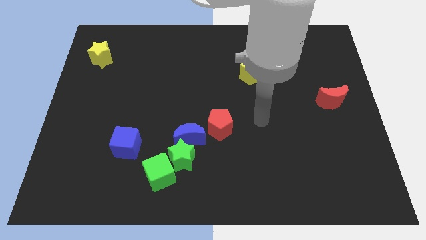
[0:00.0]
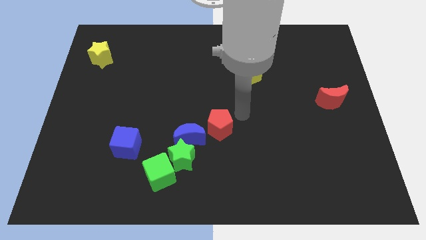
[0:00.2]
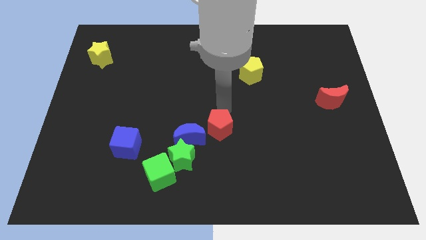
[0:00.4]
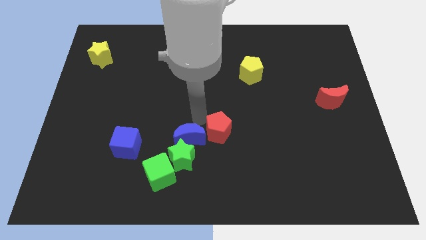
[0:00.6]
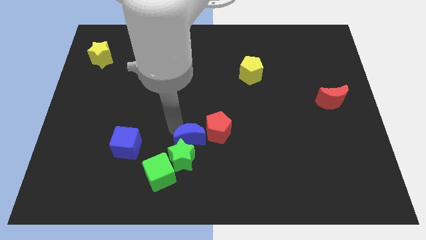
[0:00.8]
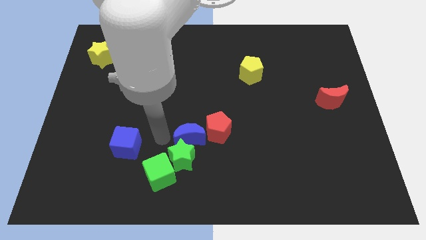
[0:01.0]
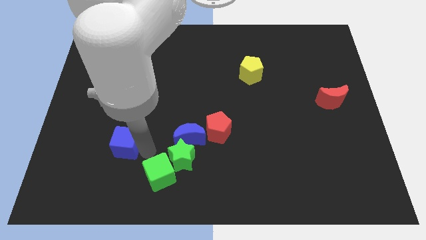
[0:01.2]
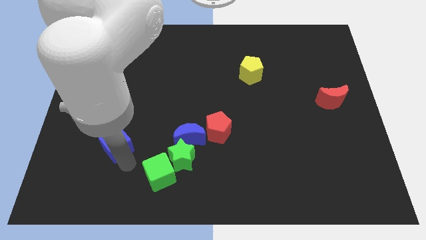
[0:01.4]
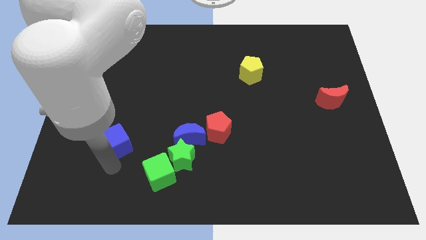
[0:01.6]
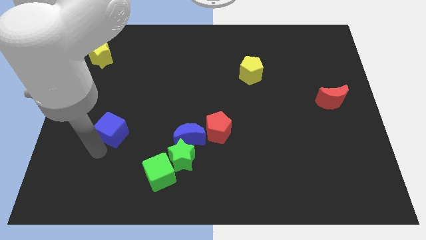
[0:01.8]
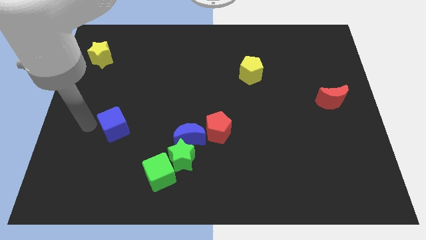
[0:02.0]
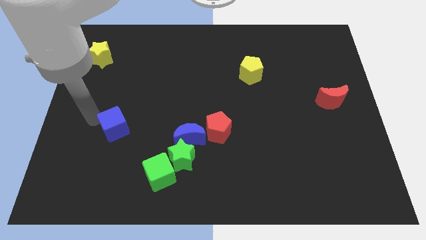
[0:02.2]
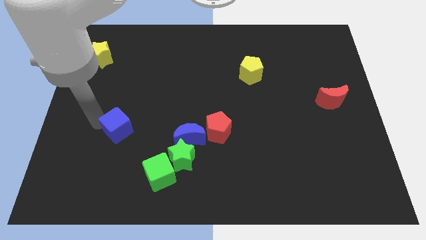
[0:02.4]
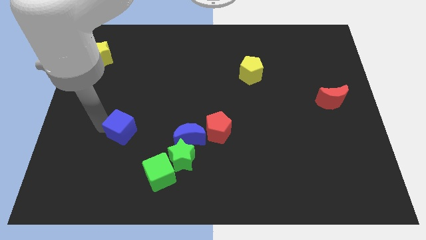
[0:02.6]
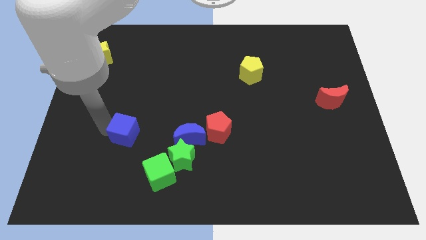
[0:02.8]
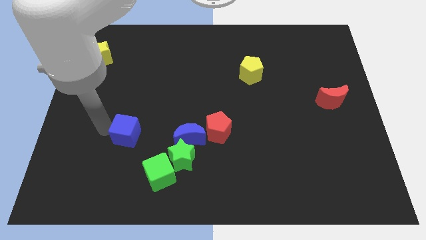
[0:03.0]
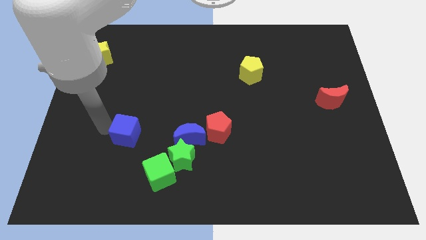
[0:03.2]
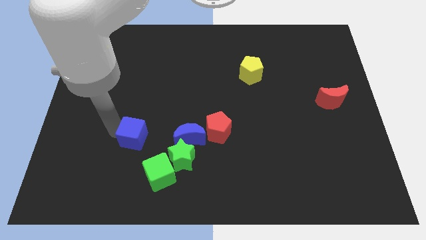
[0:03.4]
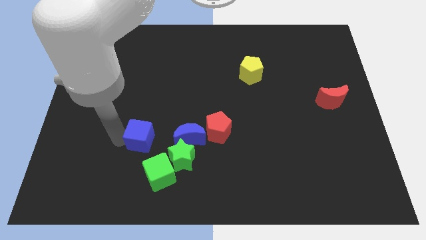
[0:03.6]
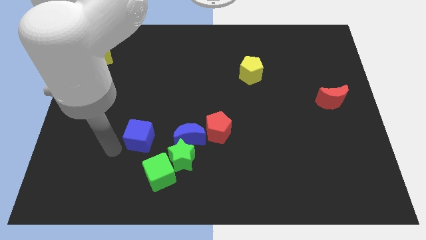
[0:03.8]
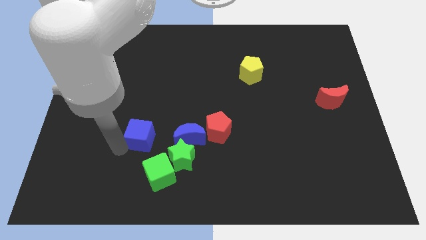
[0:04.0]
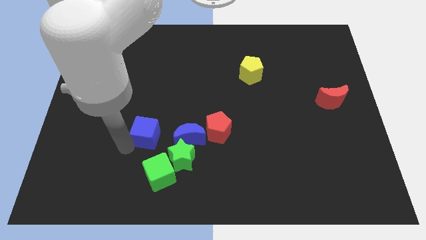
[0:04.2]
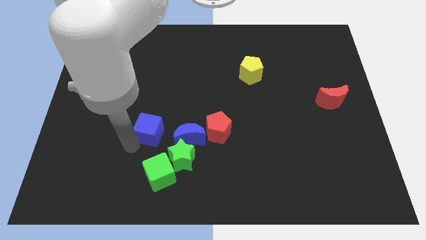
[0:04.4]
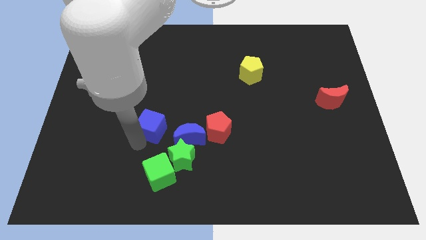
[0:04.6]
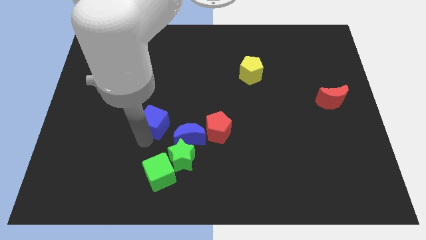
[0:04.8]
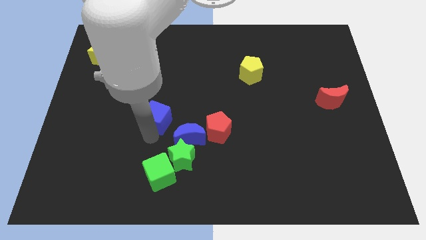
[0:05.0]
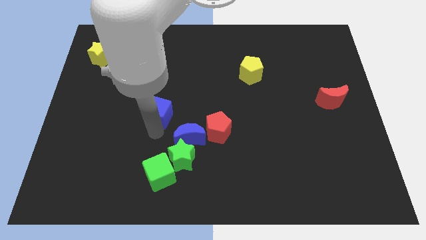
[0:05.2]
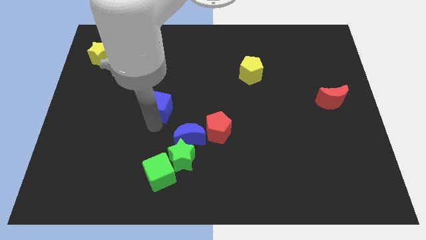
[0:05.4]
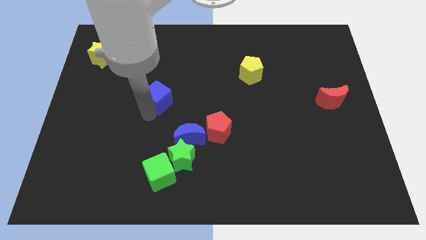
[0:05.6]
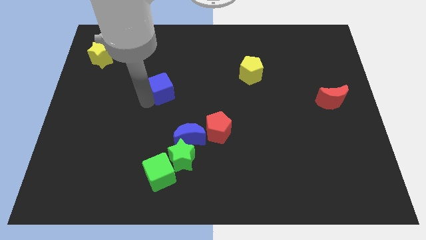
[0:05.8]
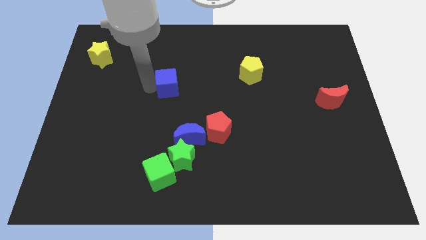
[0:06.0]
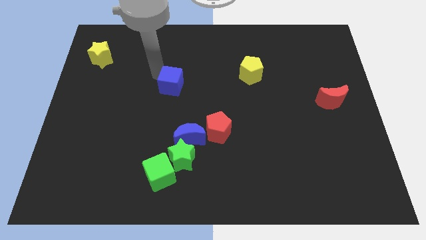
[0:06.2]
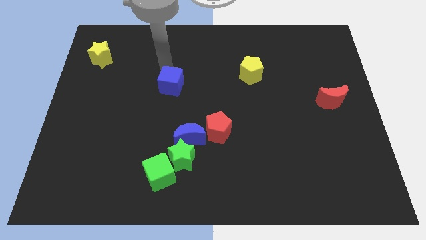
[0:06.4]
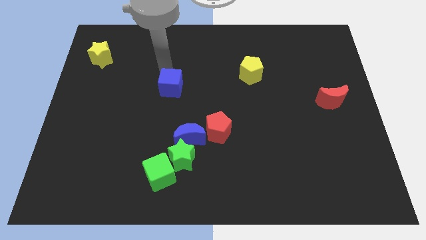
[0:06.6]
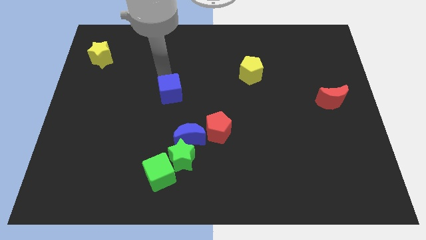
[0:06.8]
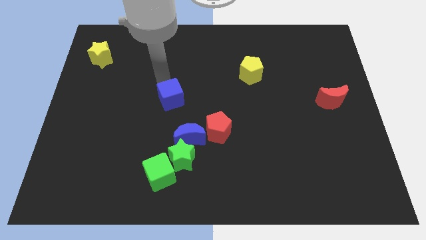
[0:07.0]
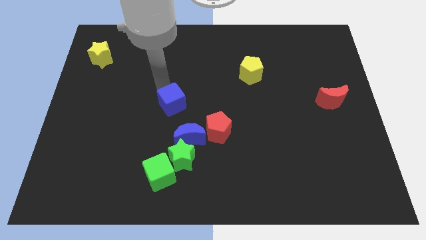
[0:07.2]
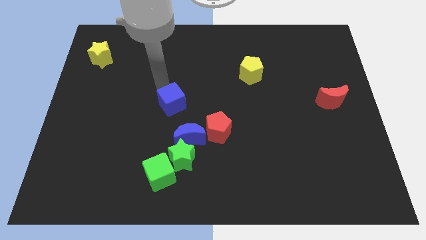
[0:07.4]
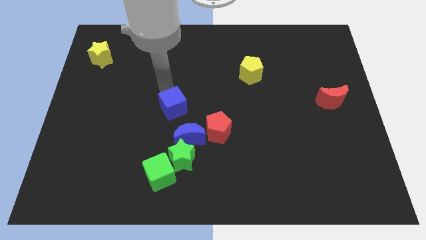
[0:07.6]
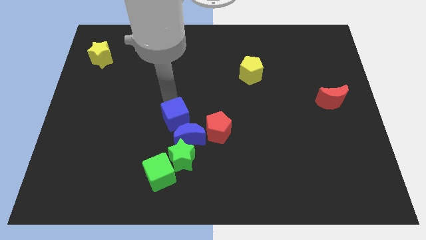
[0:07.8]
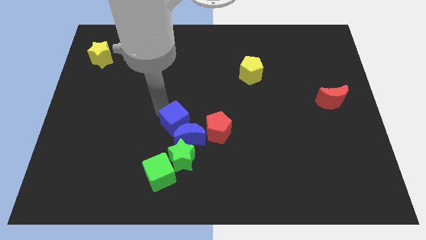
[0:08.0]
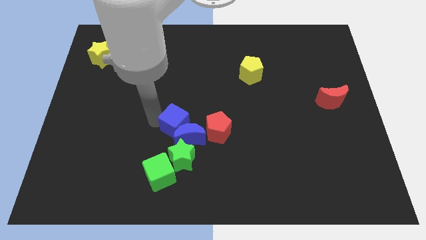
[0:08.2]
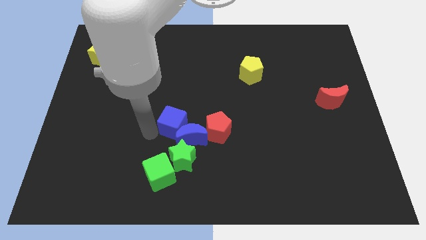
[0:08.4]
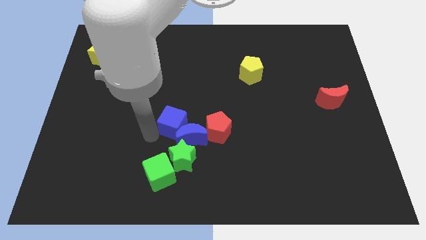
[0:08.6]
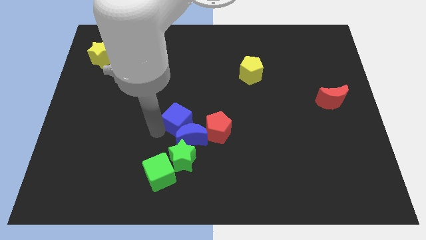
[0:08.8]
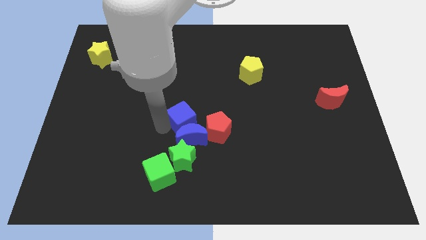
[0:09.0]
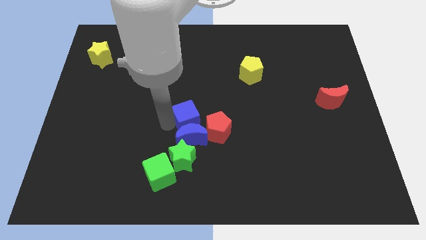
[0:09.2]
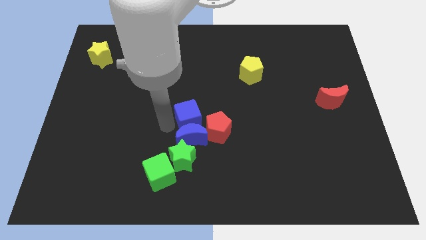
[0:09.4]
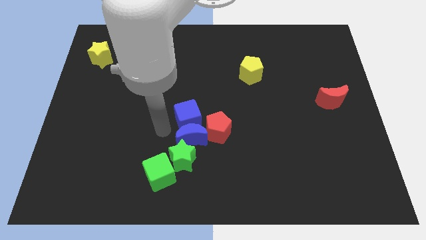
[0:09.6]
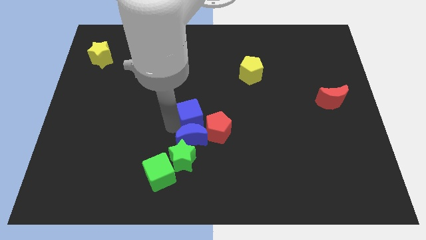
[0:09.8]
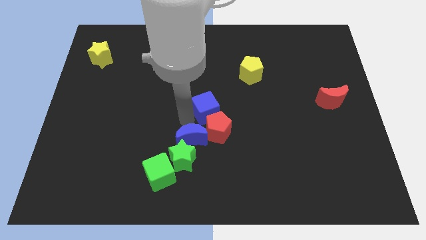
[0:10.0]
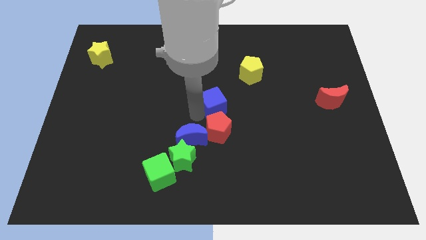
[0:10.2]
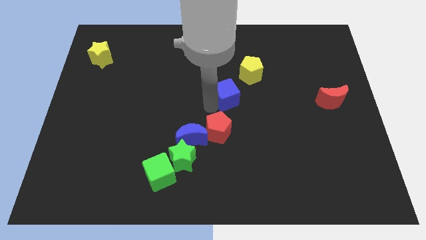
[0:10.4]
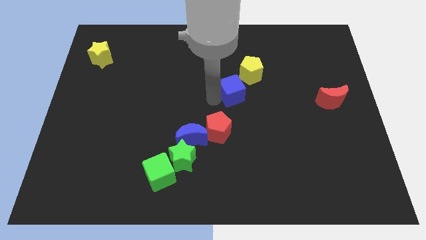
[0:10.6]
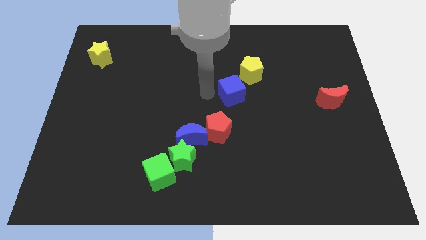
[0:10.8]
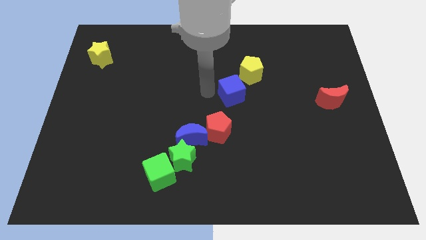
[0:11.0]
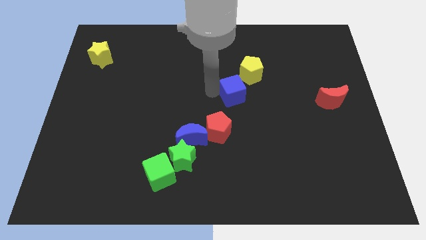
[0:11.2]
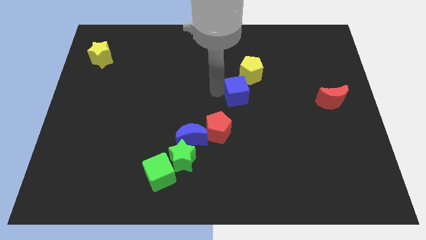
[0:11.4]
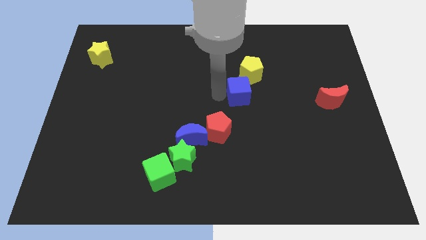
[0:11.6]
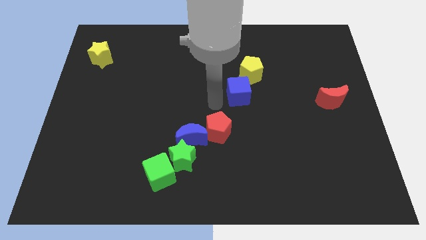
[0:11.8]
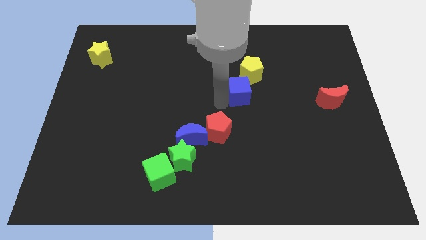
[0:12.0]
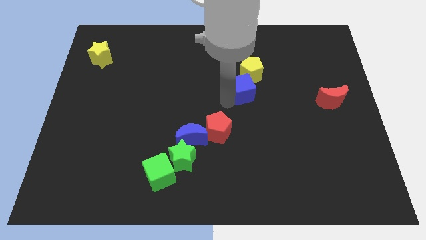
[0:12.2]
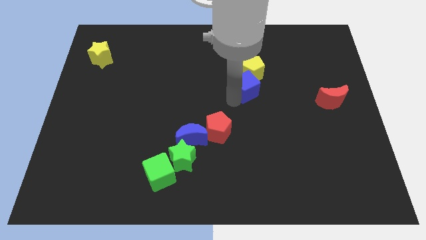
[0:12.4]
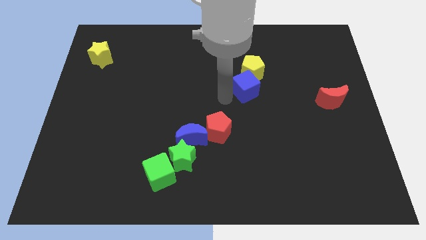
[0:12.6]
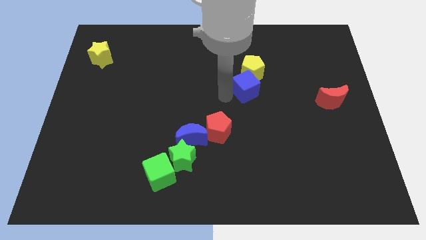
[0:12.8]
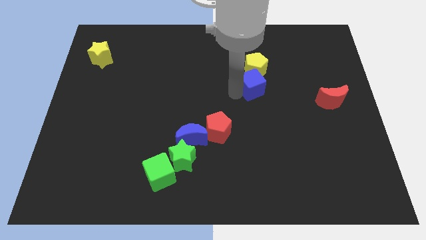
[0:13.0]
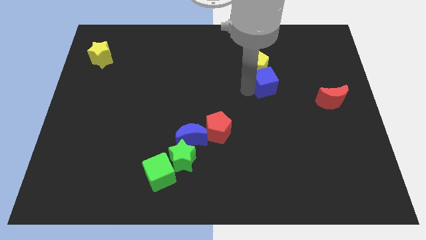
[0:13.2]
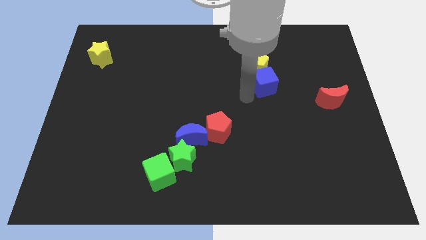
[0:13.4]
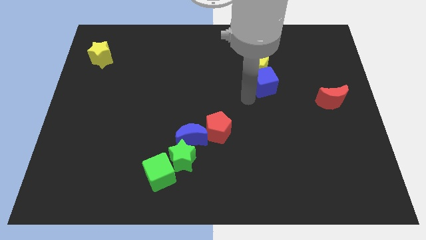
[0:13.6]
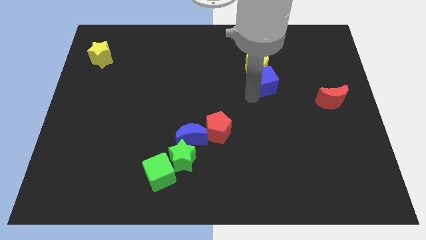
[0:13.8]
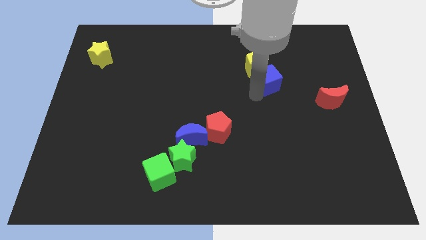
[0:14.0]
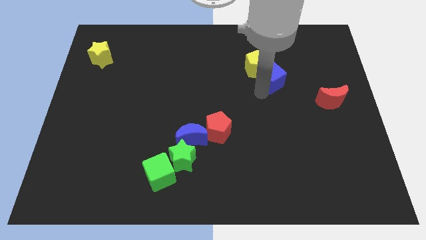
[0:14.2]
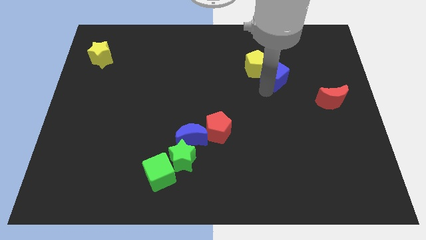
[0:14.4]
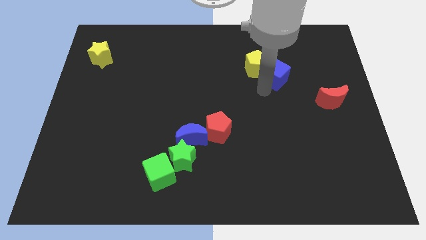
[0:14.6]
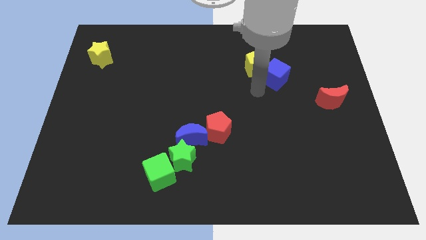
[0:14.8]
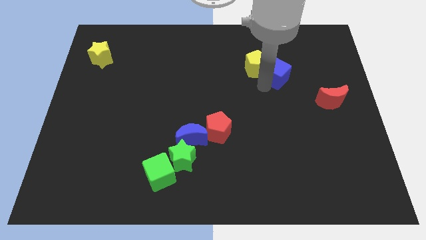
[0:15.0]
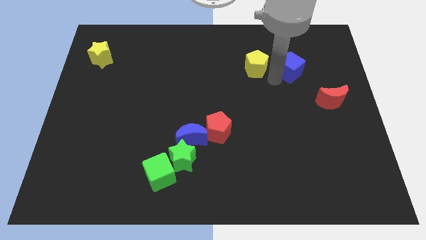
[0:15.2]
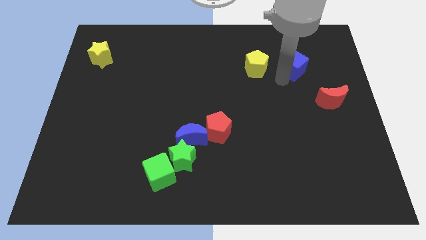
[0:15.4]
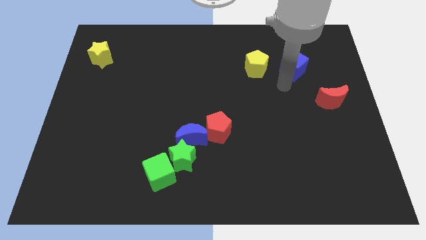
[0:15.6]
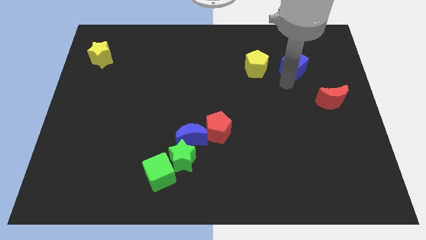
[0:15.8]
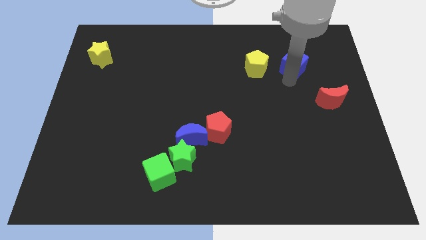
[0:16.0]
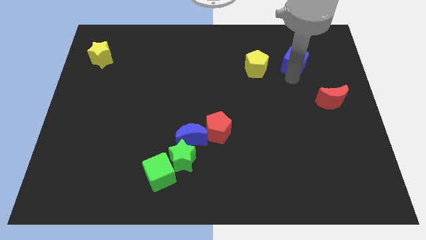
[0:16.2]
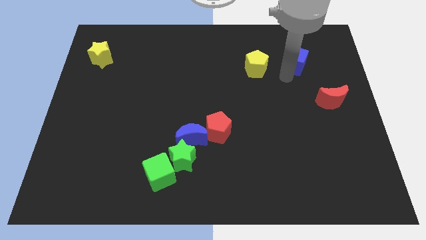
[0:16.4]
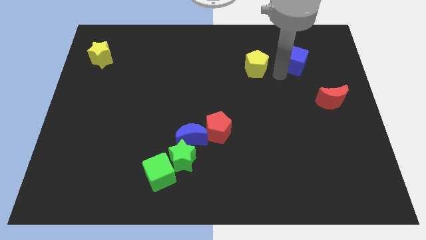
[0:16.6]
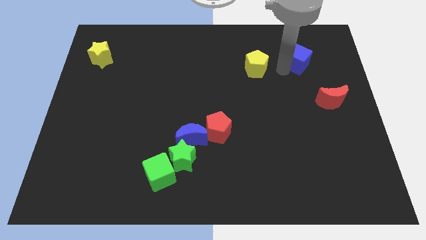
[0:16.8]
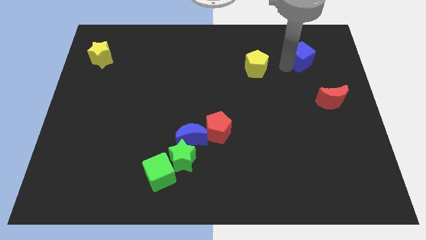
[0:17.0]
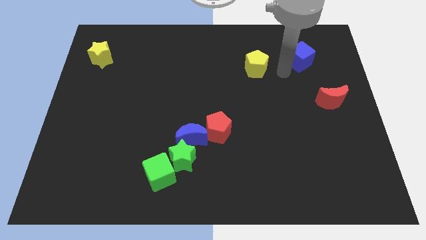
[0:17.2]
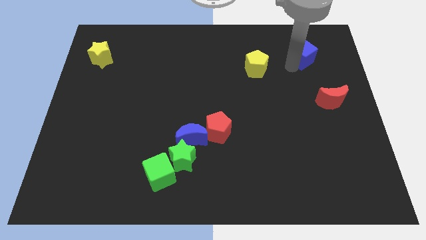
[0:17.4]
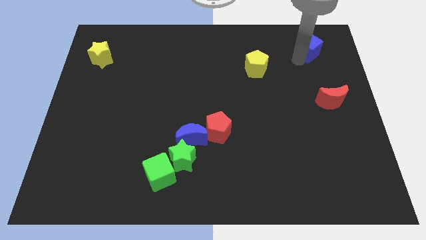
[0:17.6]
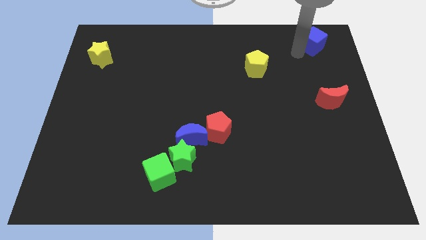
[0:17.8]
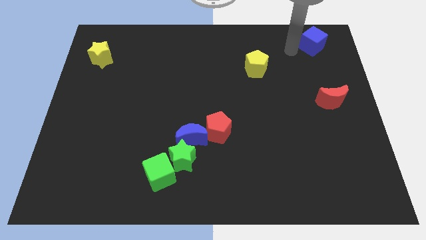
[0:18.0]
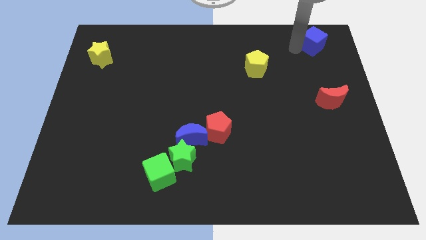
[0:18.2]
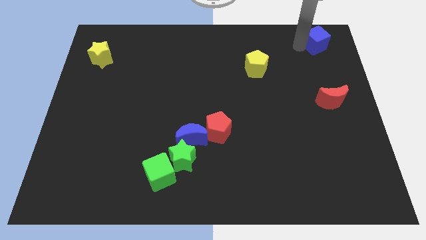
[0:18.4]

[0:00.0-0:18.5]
put the blue cube to the top right corner
